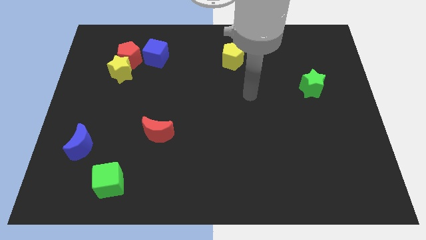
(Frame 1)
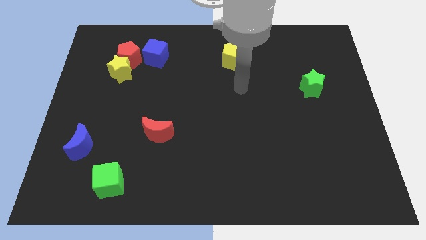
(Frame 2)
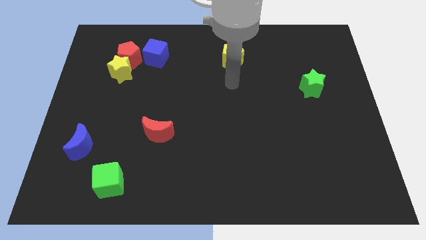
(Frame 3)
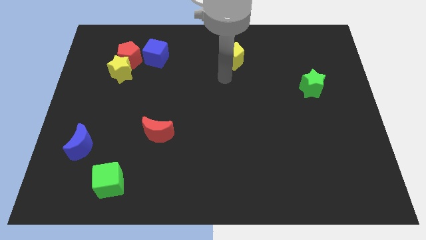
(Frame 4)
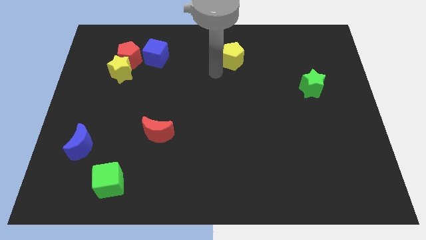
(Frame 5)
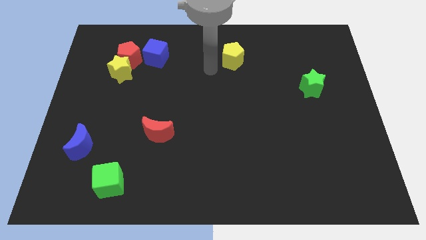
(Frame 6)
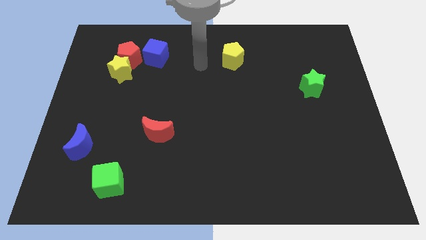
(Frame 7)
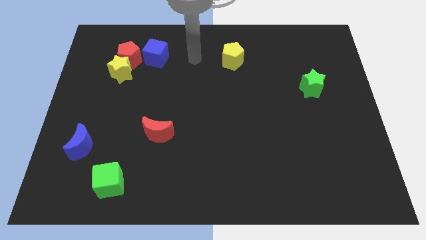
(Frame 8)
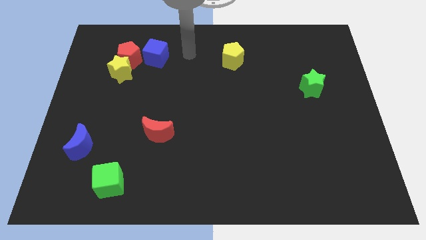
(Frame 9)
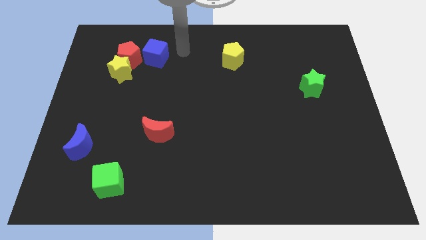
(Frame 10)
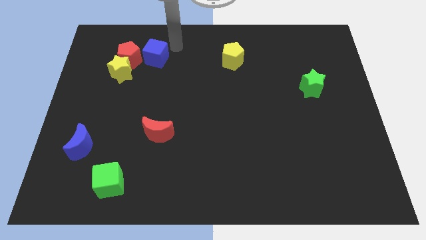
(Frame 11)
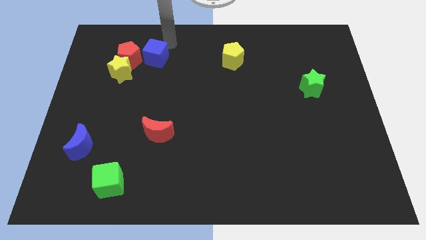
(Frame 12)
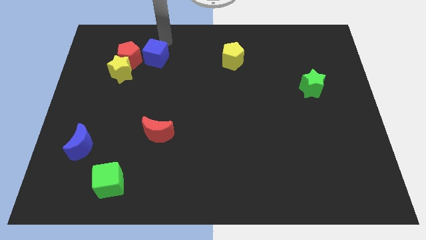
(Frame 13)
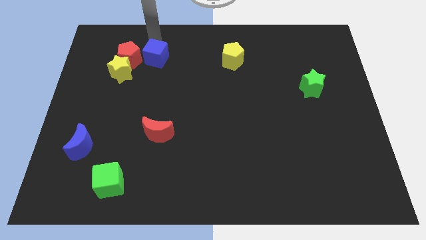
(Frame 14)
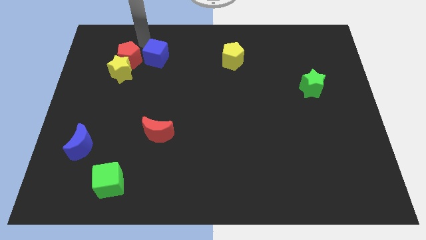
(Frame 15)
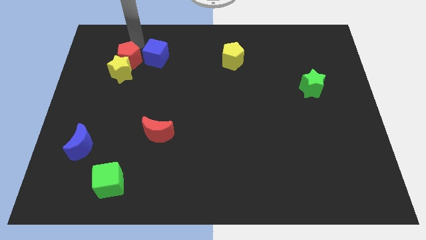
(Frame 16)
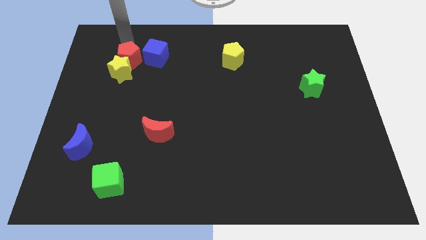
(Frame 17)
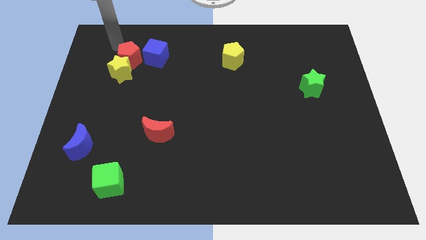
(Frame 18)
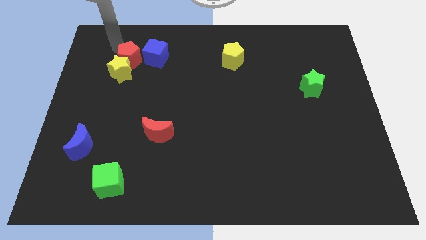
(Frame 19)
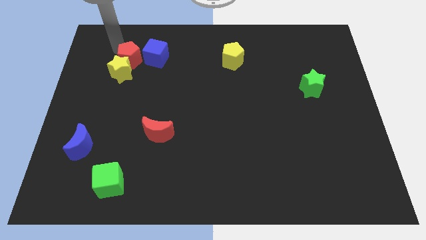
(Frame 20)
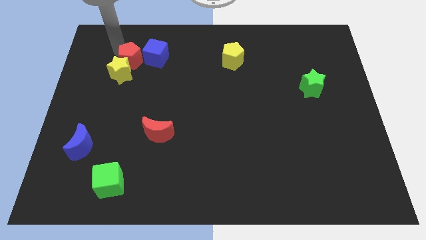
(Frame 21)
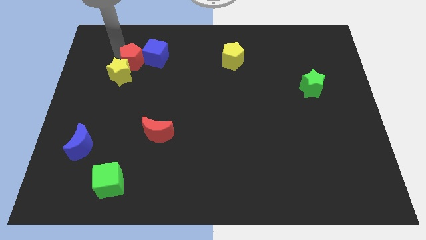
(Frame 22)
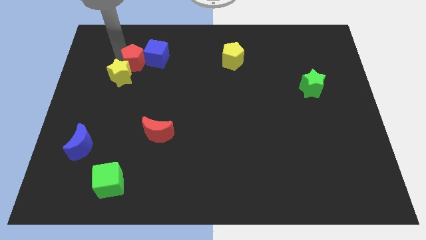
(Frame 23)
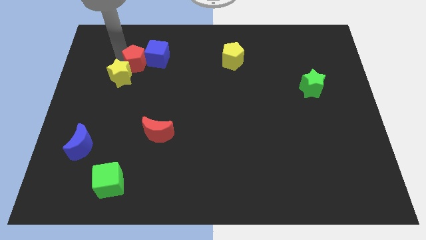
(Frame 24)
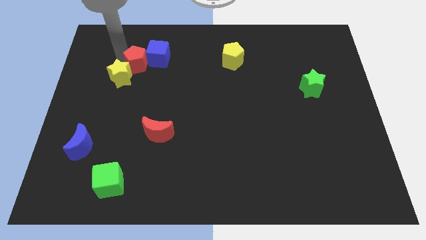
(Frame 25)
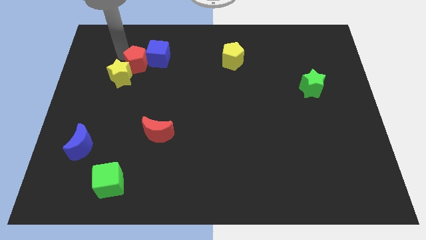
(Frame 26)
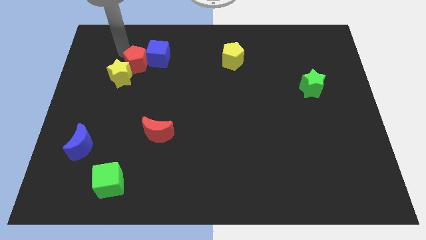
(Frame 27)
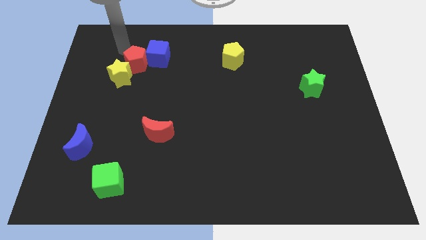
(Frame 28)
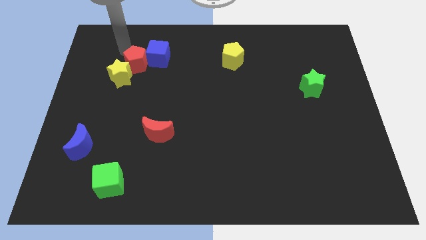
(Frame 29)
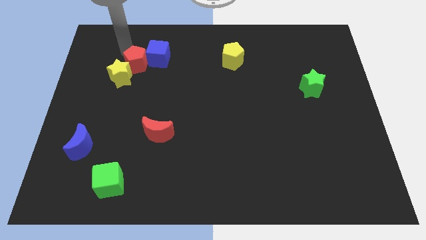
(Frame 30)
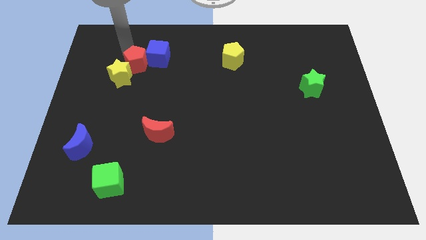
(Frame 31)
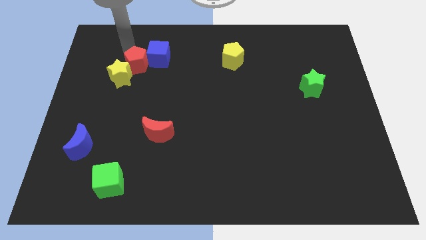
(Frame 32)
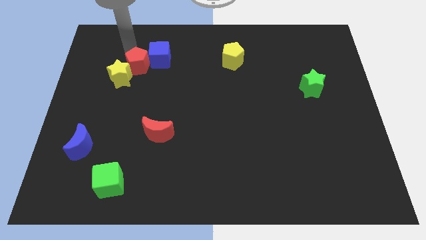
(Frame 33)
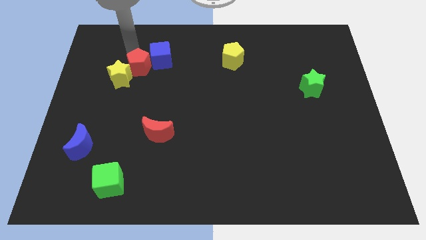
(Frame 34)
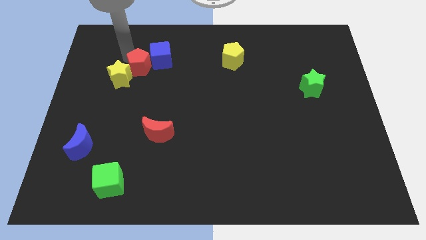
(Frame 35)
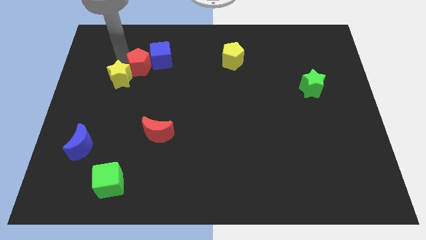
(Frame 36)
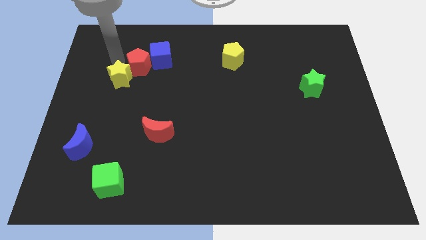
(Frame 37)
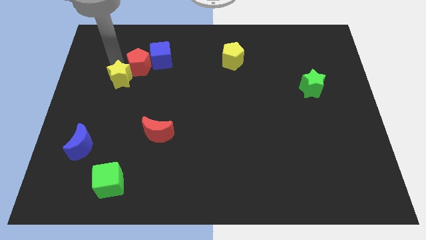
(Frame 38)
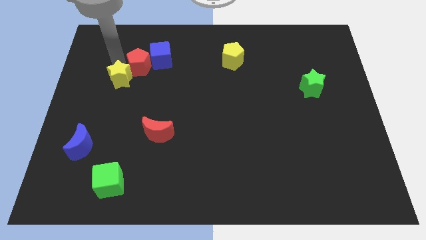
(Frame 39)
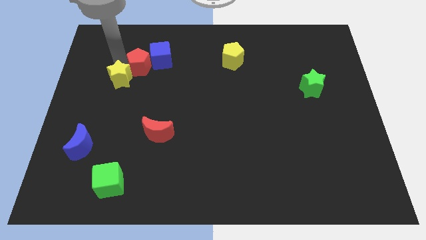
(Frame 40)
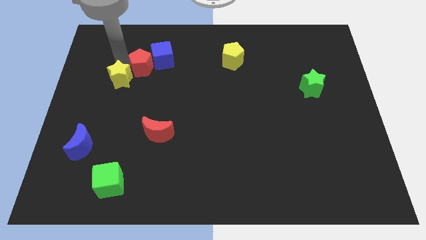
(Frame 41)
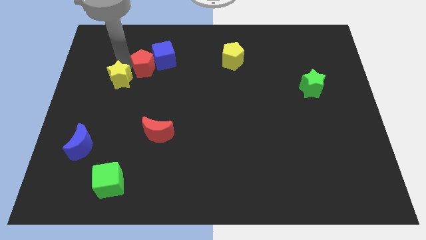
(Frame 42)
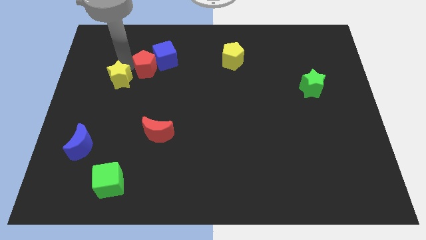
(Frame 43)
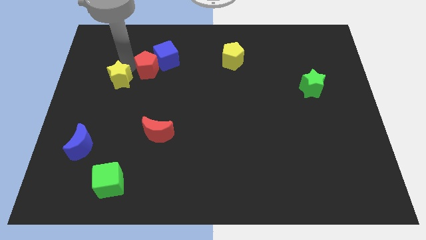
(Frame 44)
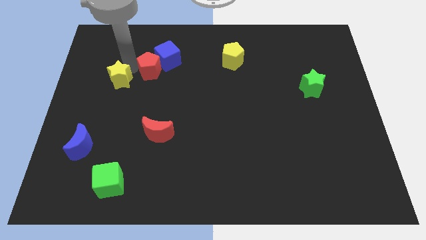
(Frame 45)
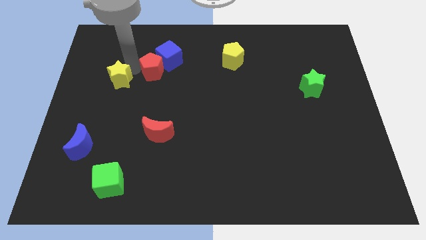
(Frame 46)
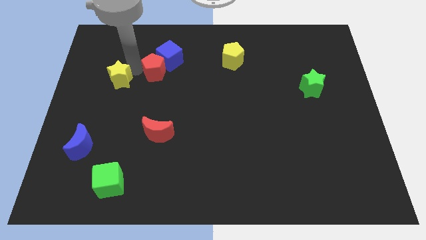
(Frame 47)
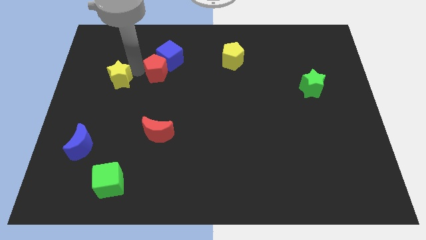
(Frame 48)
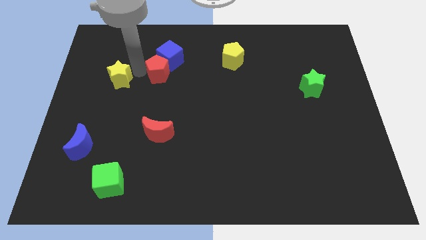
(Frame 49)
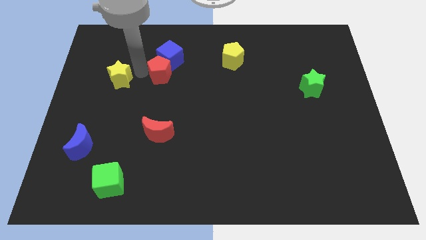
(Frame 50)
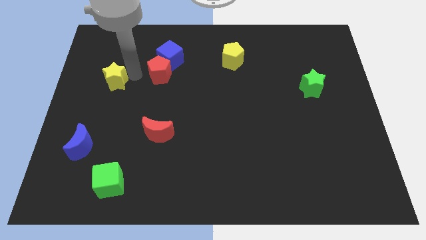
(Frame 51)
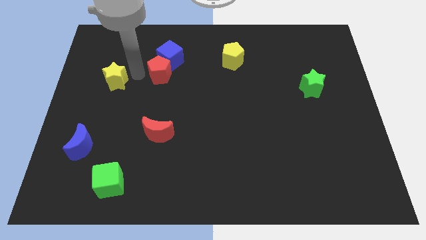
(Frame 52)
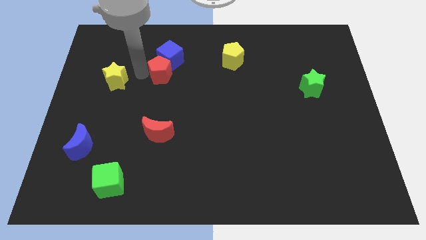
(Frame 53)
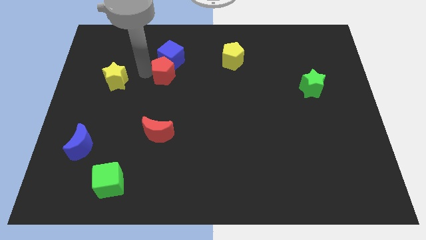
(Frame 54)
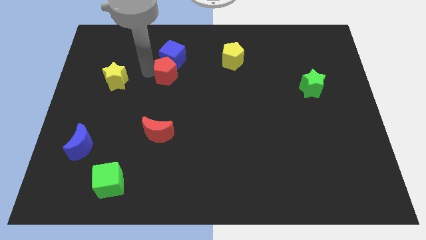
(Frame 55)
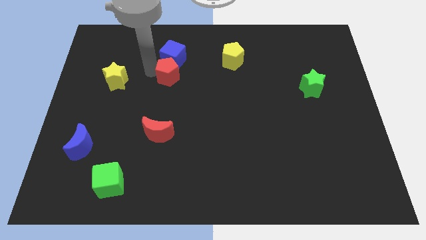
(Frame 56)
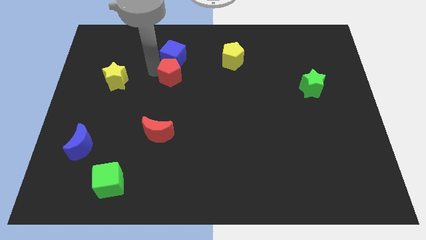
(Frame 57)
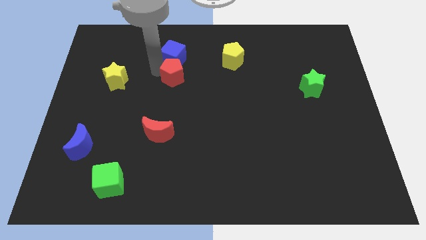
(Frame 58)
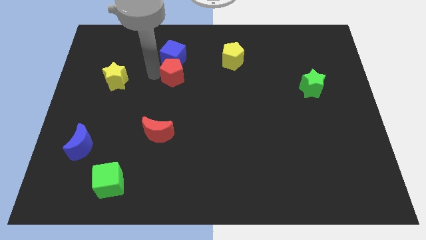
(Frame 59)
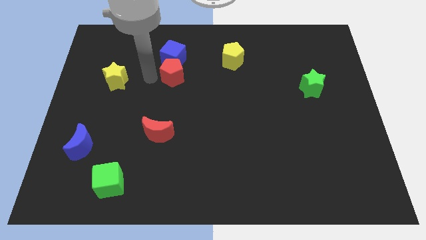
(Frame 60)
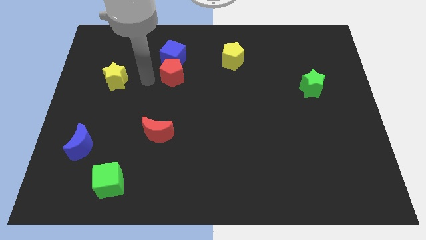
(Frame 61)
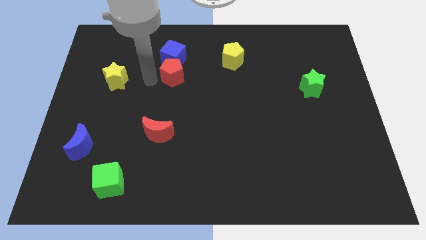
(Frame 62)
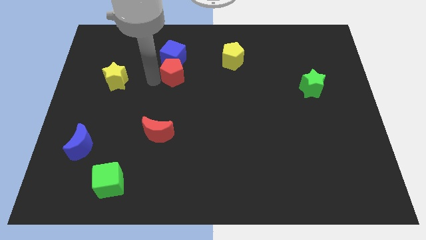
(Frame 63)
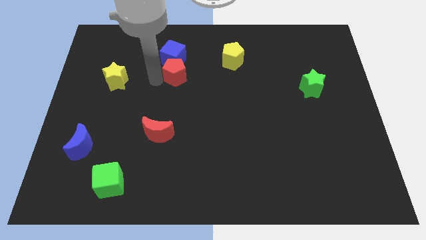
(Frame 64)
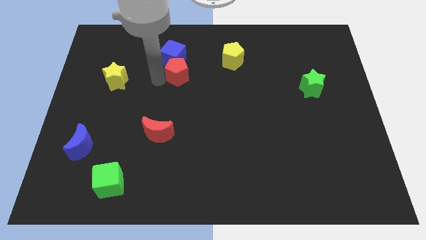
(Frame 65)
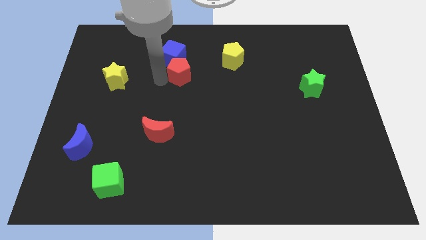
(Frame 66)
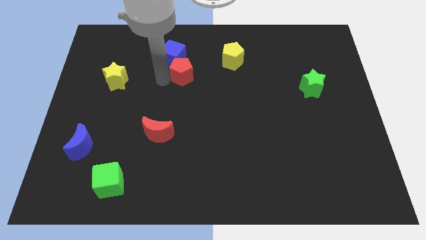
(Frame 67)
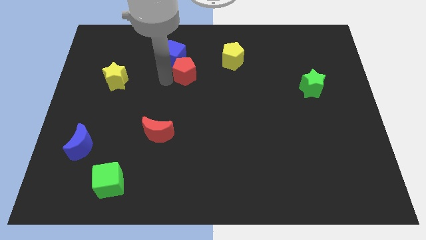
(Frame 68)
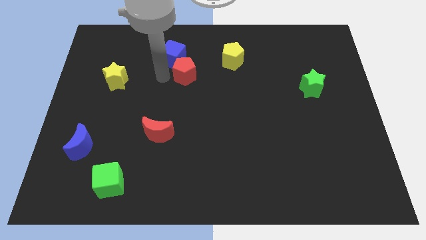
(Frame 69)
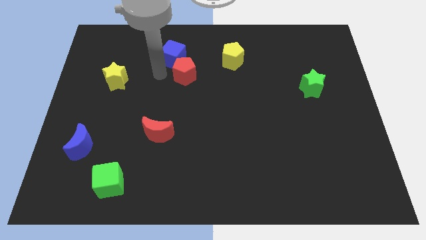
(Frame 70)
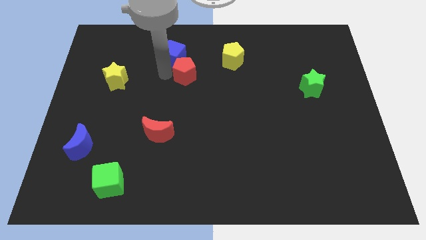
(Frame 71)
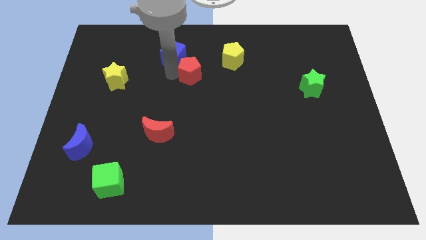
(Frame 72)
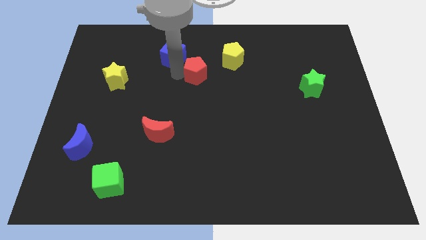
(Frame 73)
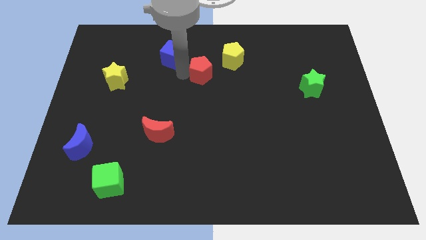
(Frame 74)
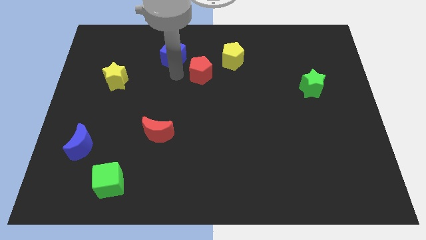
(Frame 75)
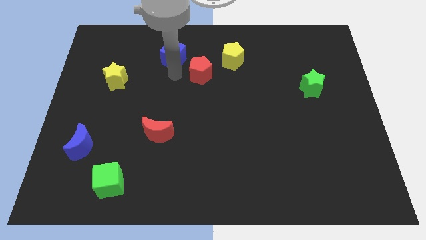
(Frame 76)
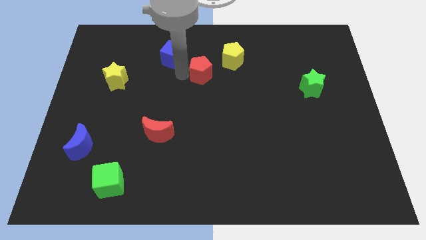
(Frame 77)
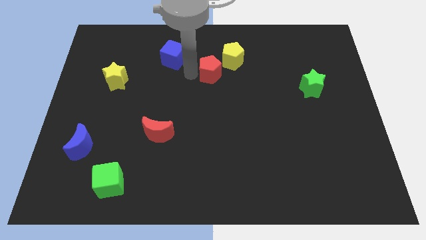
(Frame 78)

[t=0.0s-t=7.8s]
move the red pentagon to the right
